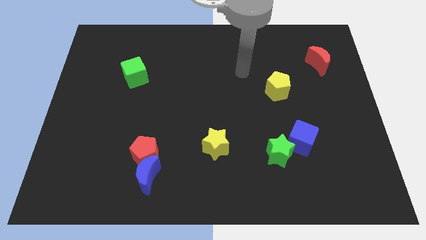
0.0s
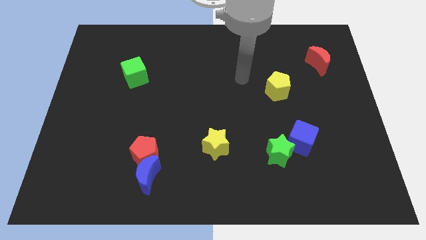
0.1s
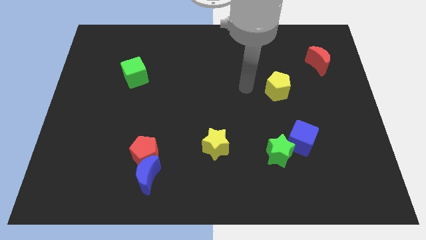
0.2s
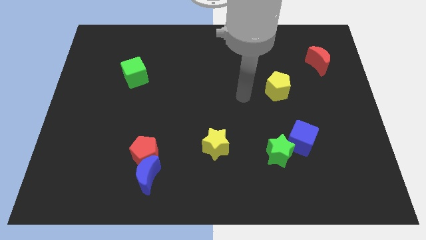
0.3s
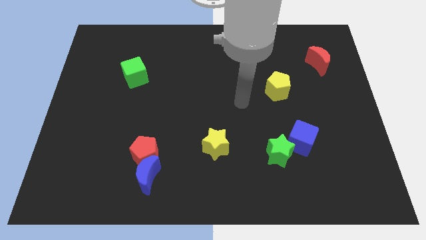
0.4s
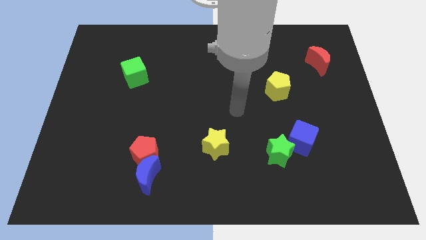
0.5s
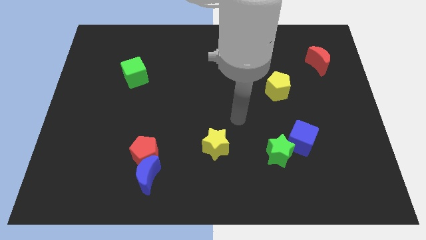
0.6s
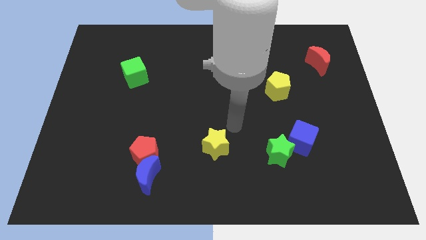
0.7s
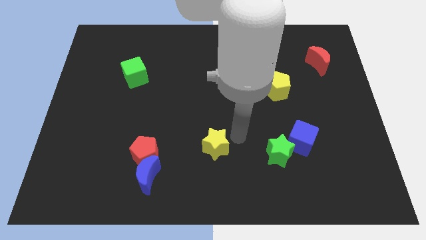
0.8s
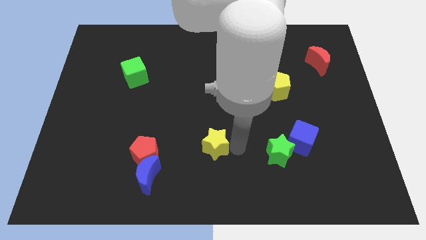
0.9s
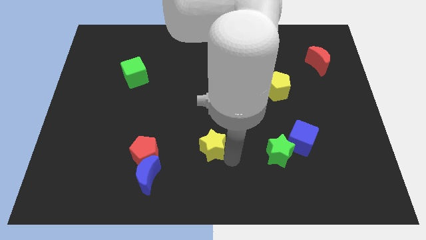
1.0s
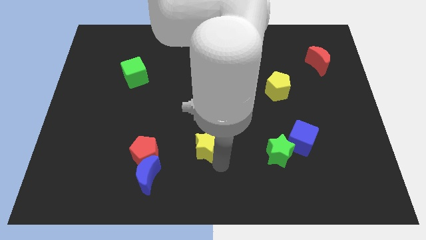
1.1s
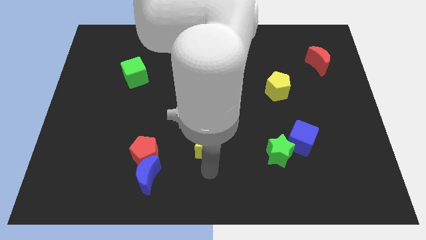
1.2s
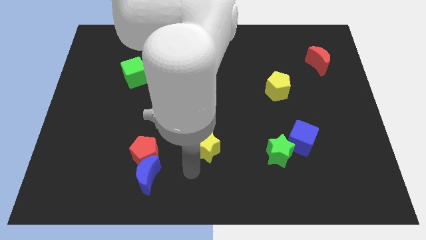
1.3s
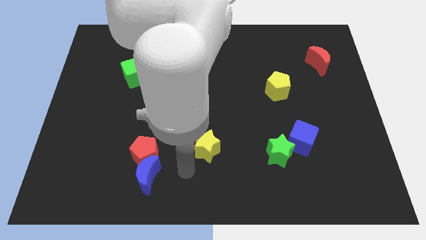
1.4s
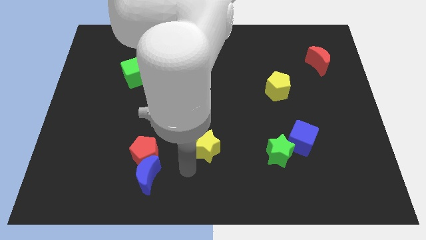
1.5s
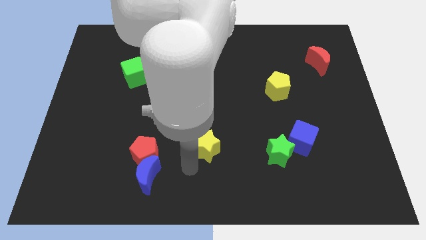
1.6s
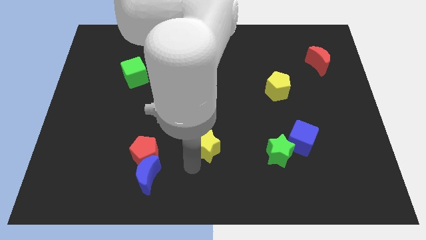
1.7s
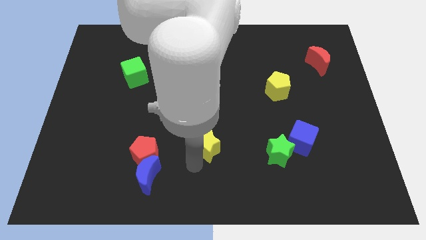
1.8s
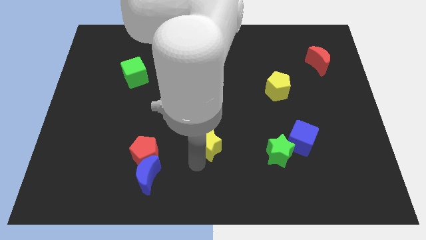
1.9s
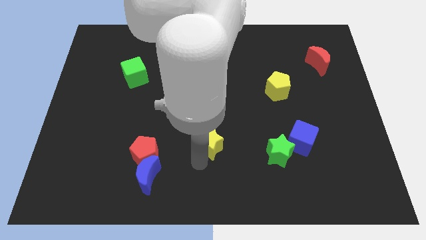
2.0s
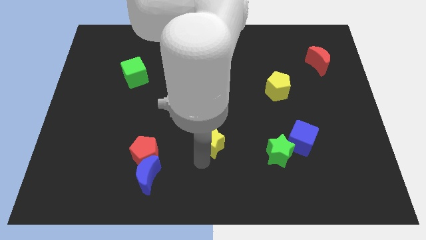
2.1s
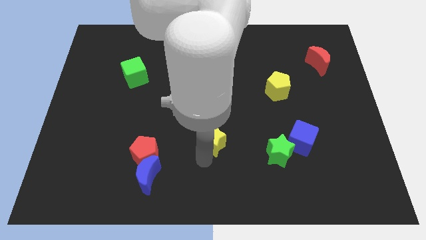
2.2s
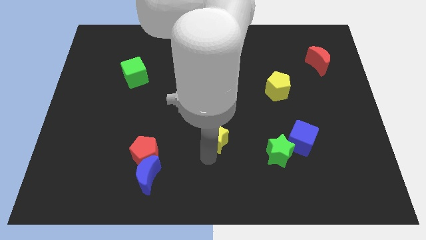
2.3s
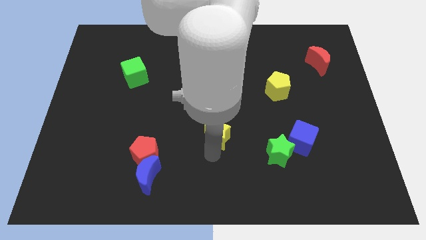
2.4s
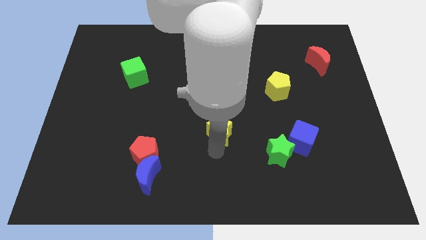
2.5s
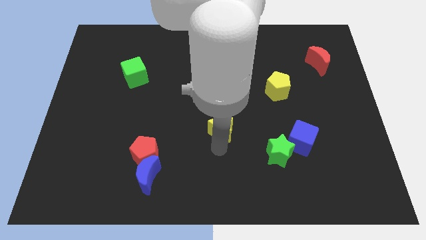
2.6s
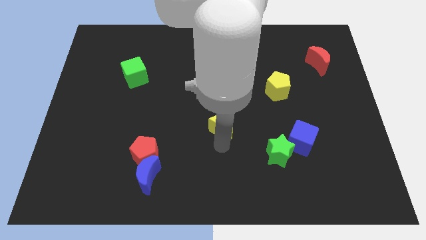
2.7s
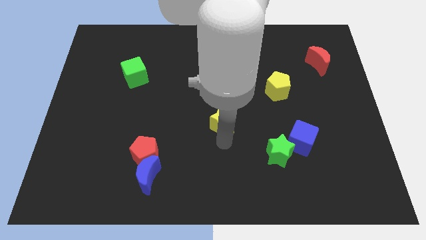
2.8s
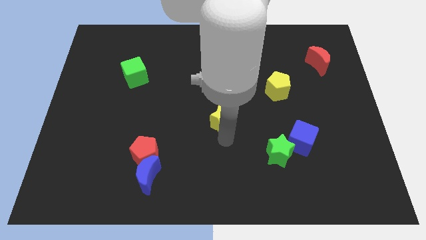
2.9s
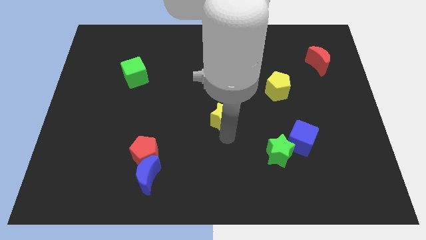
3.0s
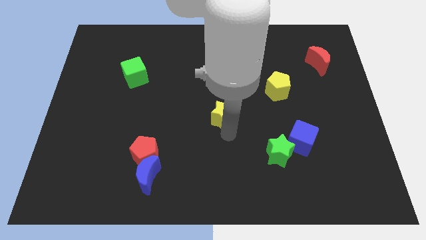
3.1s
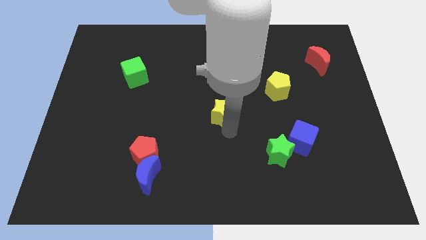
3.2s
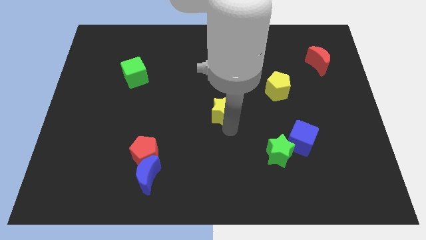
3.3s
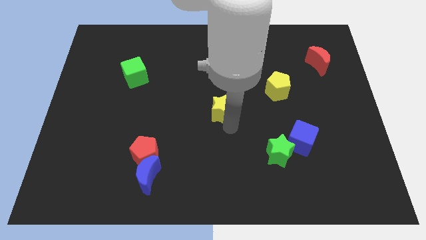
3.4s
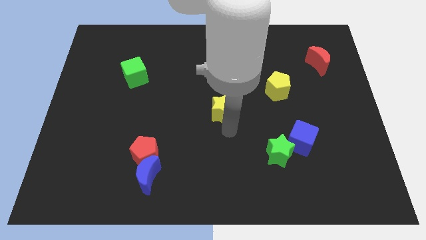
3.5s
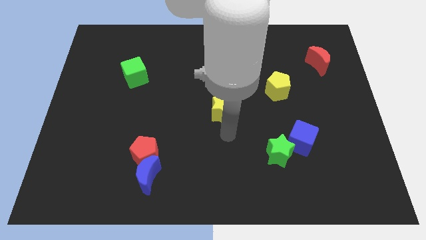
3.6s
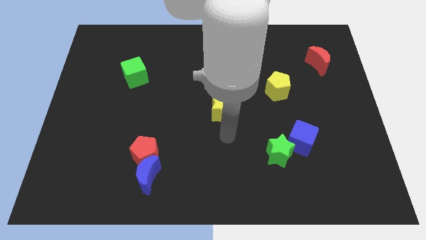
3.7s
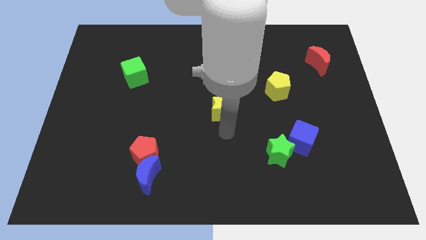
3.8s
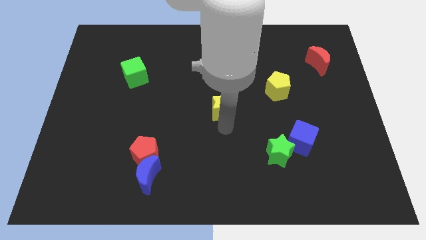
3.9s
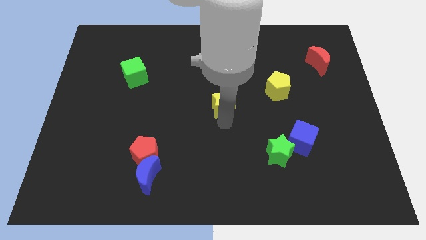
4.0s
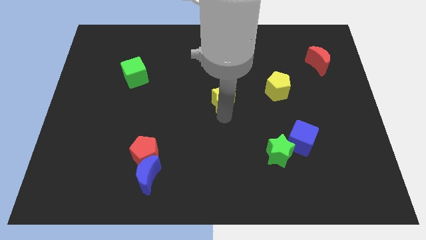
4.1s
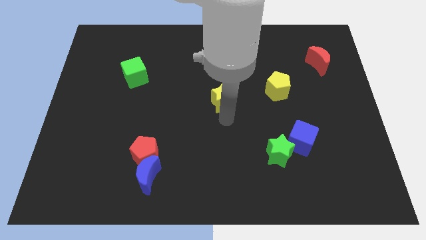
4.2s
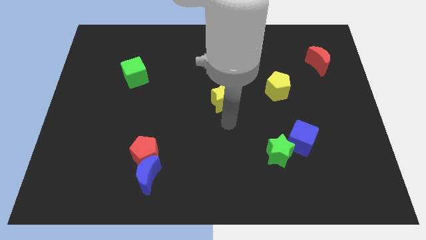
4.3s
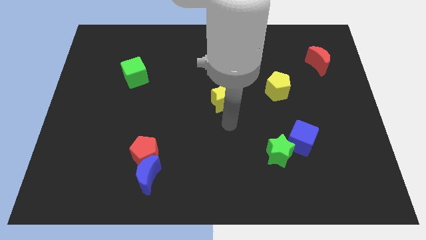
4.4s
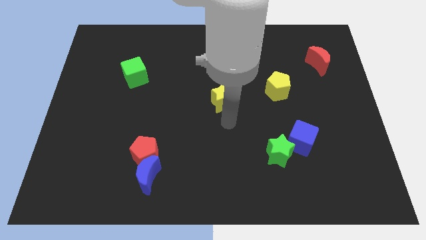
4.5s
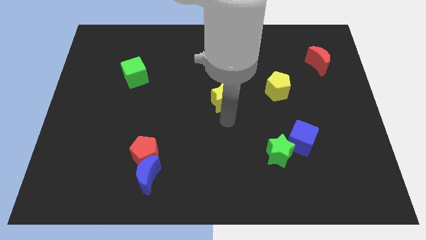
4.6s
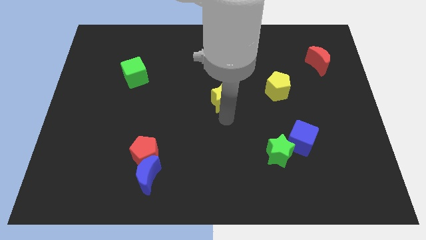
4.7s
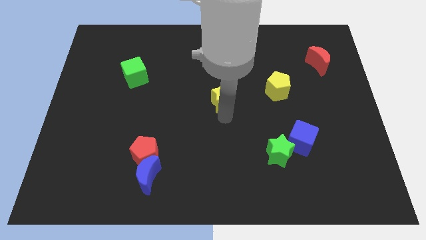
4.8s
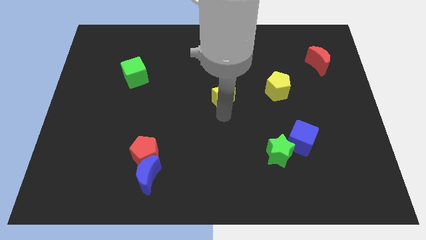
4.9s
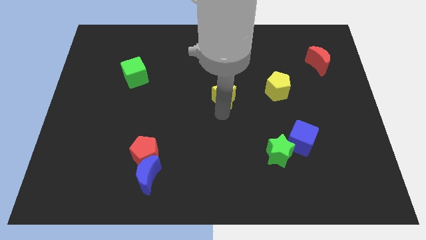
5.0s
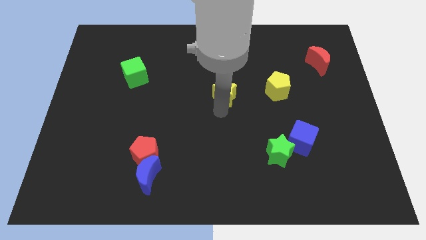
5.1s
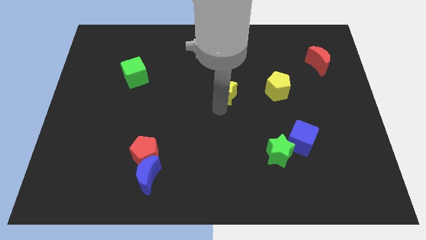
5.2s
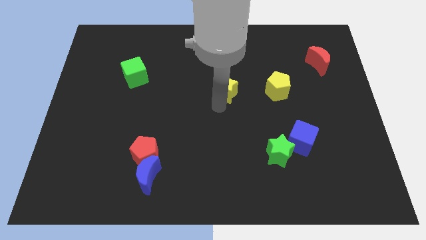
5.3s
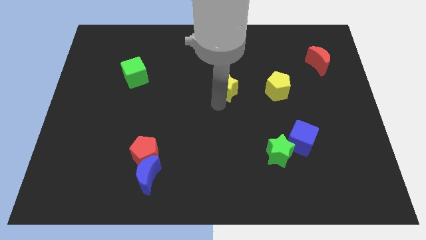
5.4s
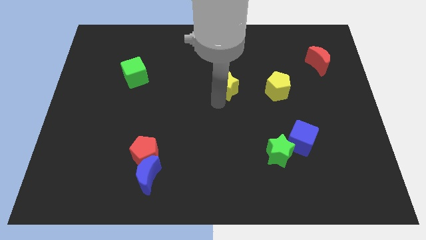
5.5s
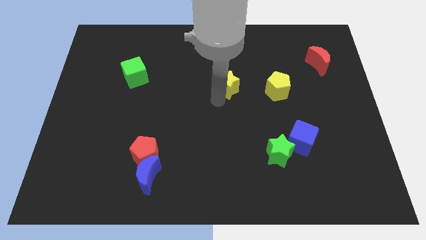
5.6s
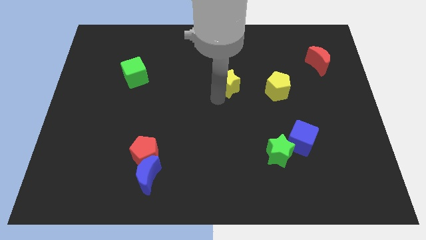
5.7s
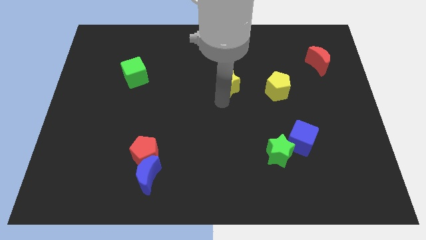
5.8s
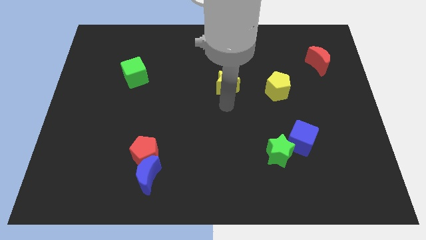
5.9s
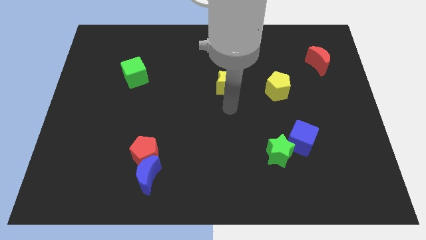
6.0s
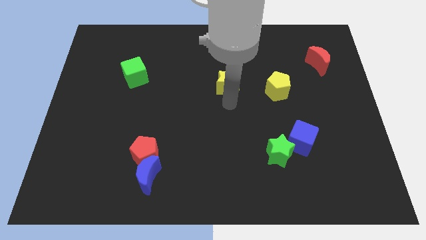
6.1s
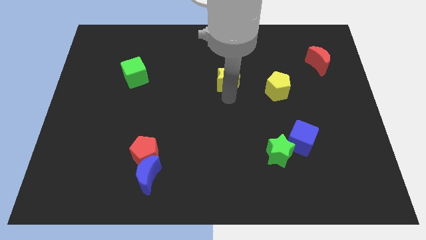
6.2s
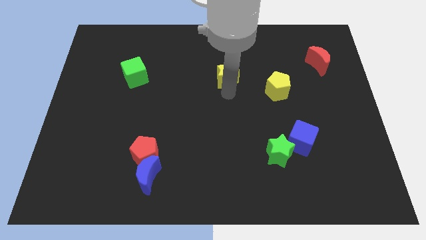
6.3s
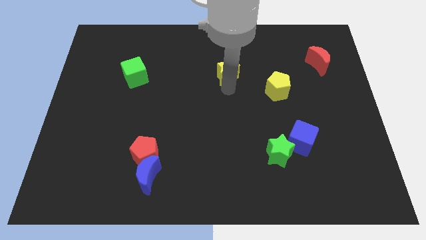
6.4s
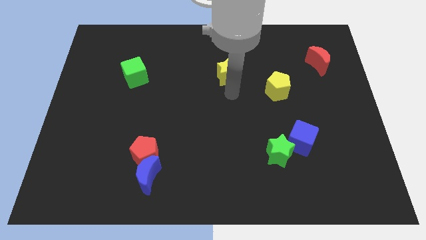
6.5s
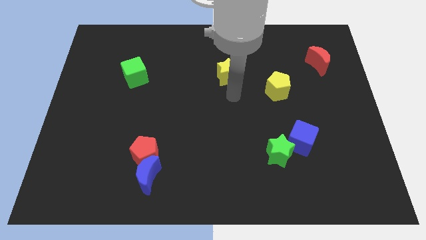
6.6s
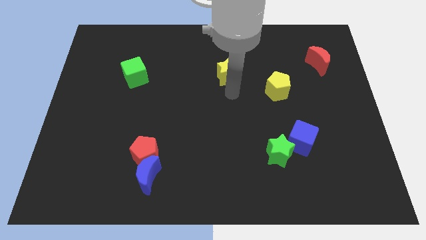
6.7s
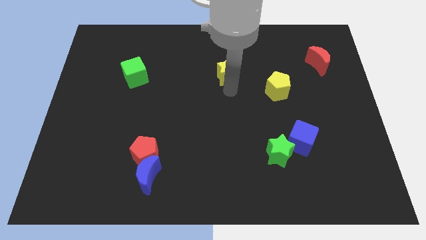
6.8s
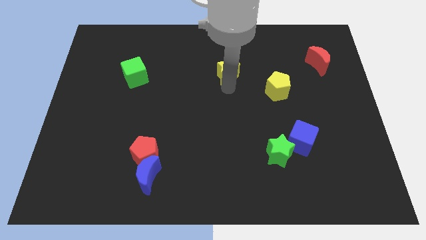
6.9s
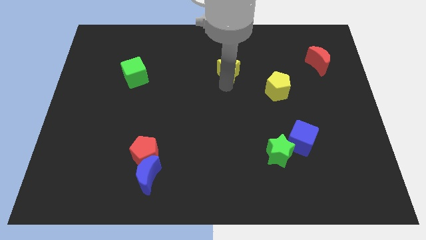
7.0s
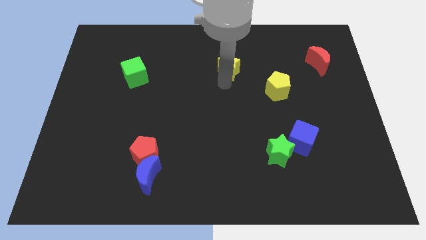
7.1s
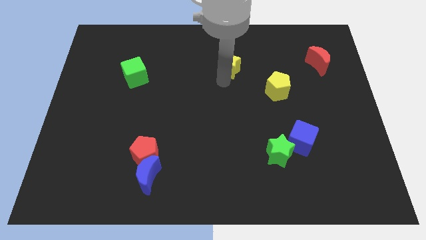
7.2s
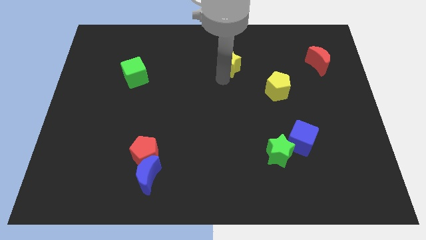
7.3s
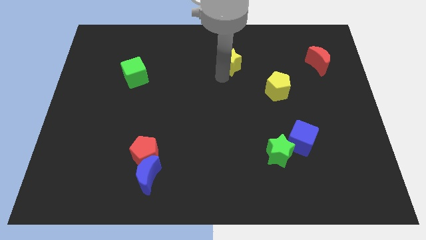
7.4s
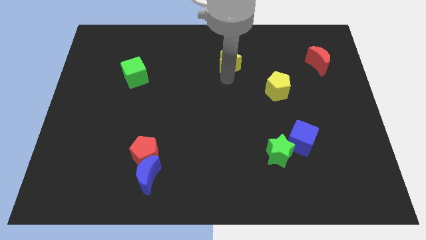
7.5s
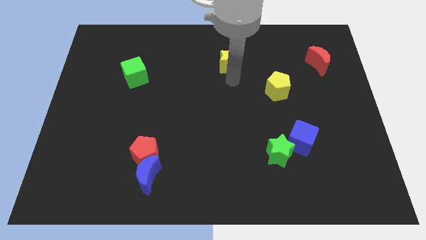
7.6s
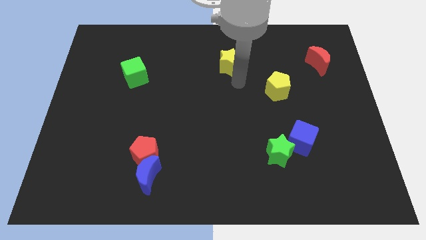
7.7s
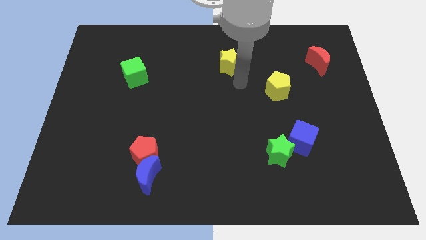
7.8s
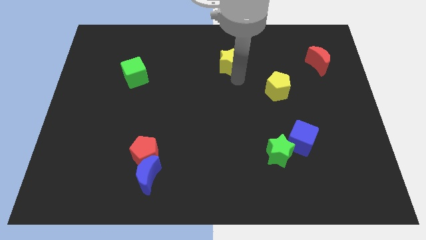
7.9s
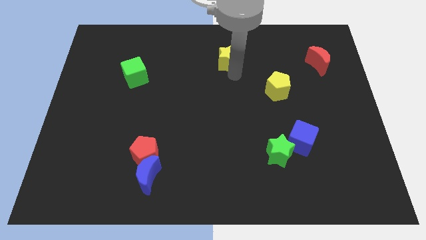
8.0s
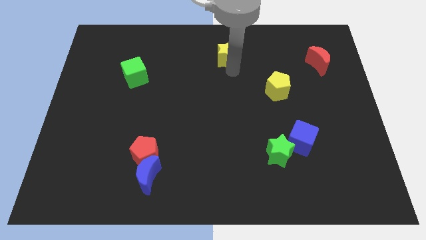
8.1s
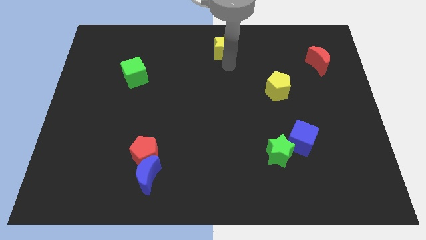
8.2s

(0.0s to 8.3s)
slide the yellow star to the top side
